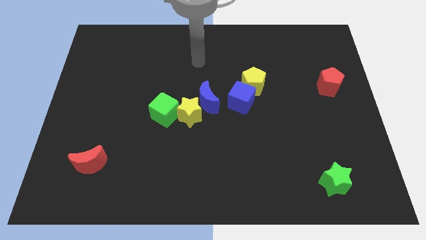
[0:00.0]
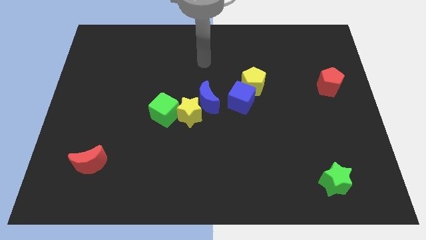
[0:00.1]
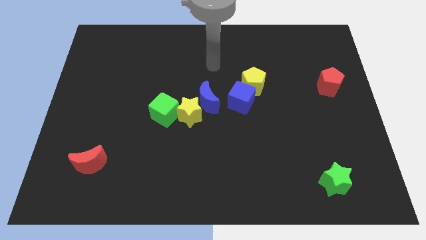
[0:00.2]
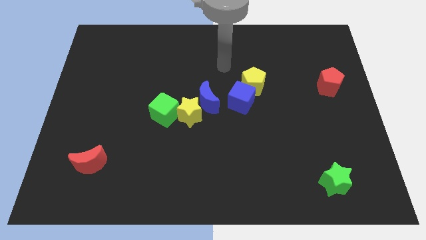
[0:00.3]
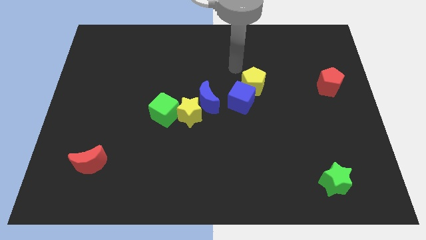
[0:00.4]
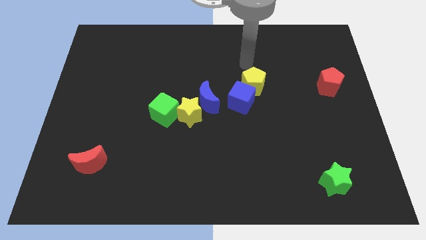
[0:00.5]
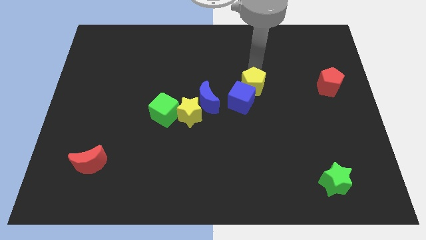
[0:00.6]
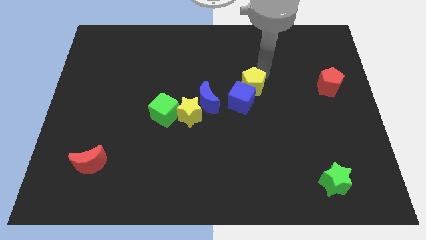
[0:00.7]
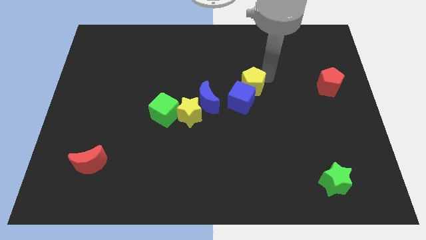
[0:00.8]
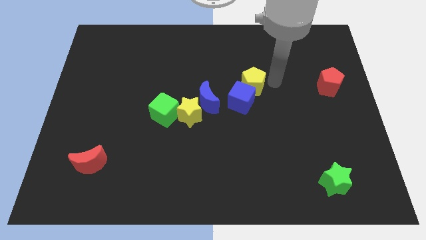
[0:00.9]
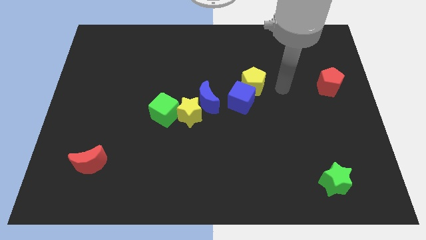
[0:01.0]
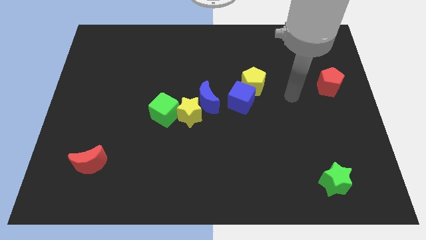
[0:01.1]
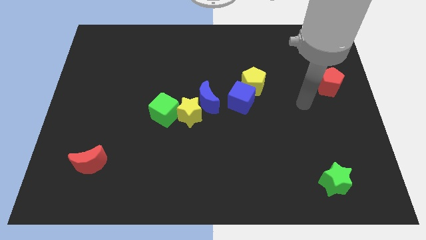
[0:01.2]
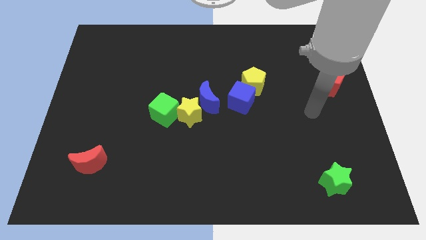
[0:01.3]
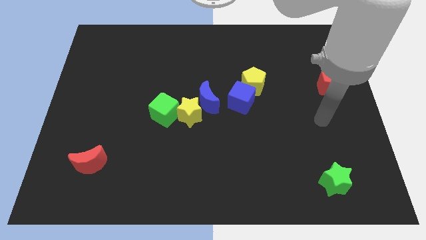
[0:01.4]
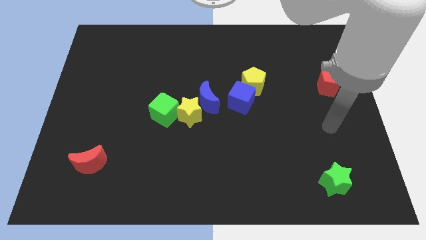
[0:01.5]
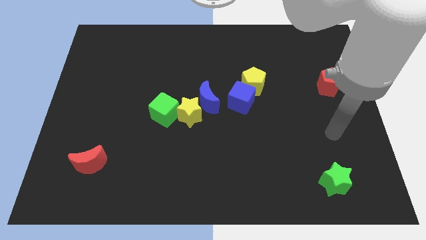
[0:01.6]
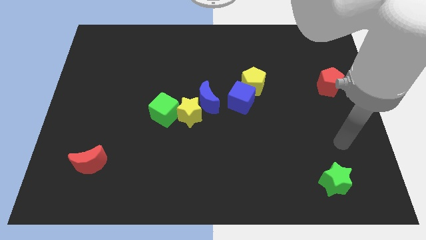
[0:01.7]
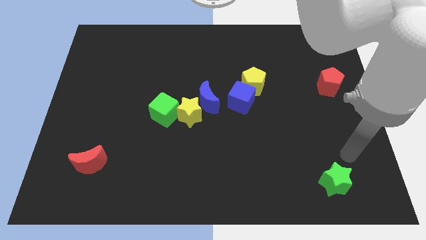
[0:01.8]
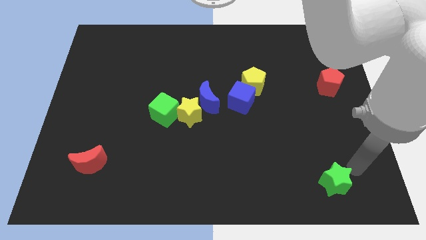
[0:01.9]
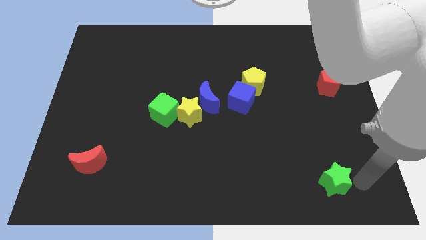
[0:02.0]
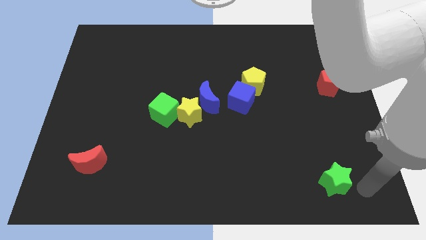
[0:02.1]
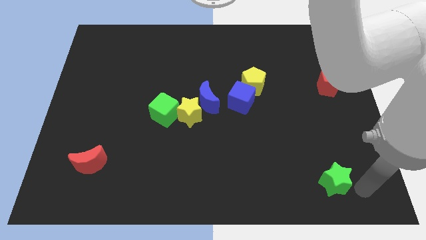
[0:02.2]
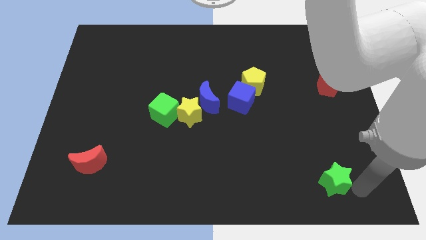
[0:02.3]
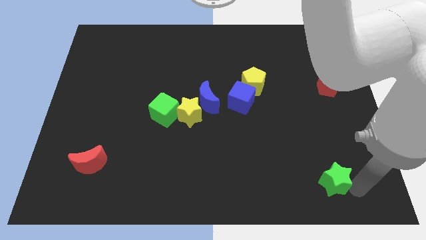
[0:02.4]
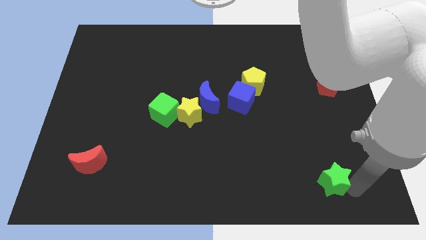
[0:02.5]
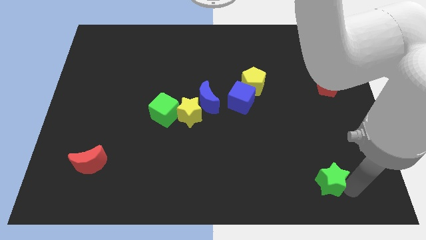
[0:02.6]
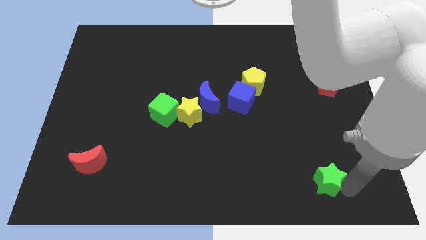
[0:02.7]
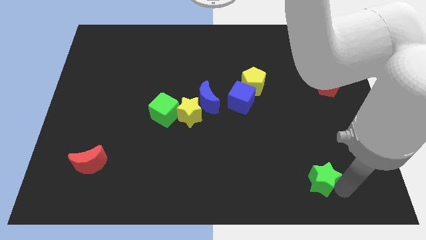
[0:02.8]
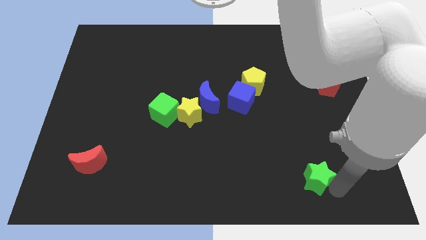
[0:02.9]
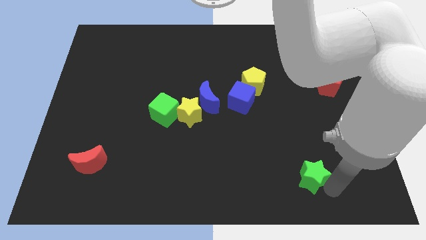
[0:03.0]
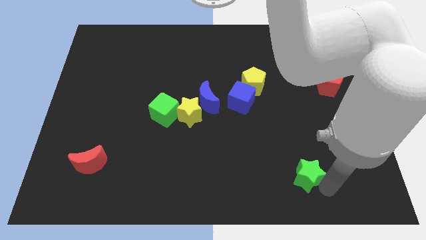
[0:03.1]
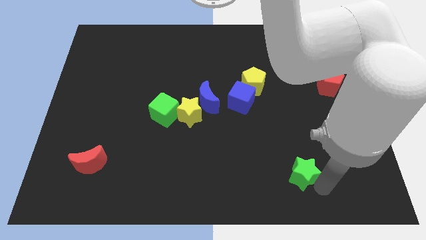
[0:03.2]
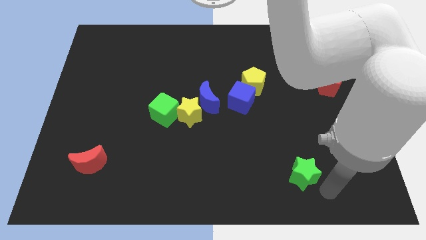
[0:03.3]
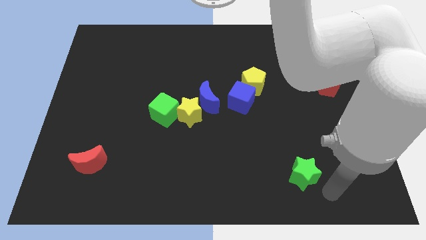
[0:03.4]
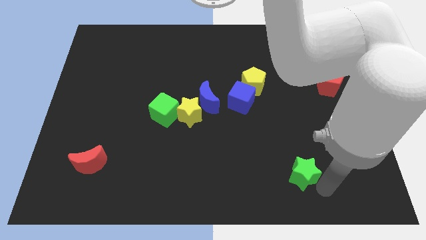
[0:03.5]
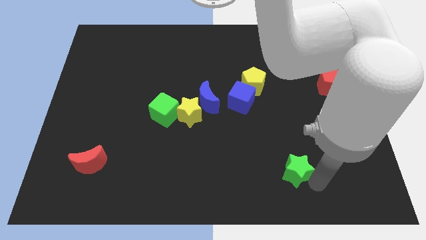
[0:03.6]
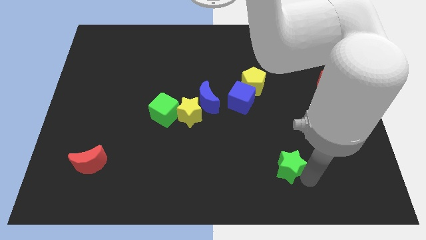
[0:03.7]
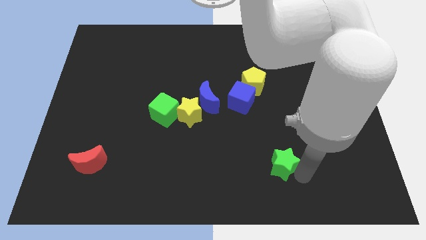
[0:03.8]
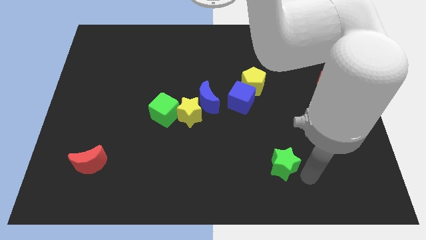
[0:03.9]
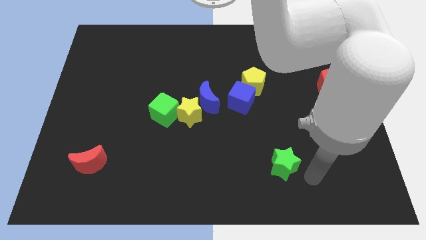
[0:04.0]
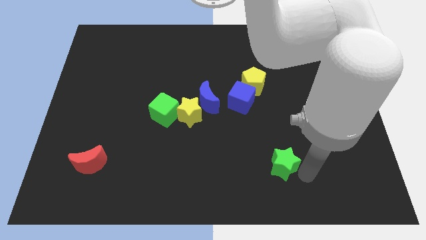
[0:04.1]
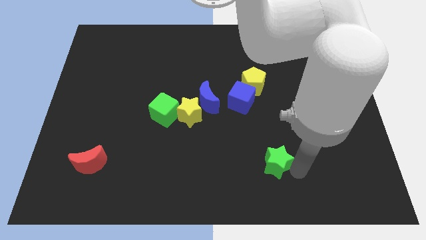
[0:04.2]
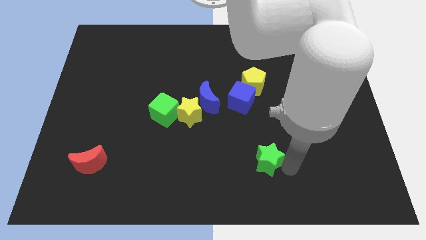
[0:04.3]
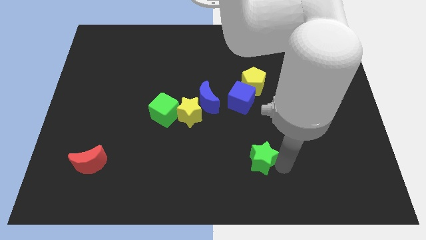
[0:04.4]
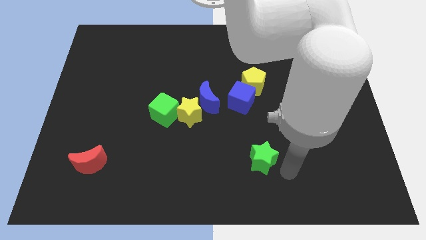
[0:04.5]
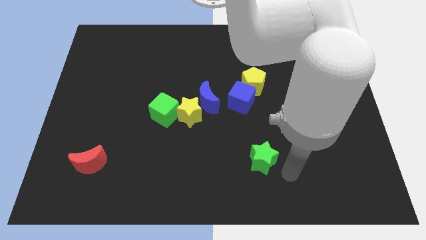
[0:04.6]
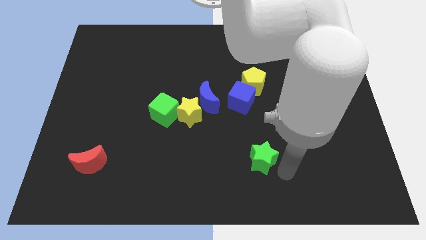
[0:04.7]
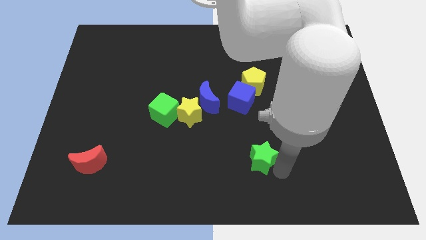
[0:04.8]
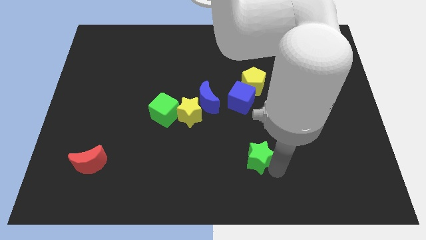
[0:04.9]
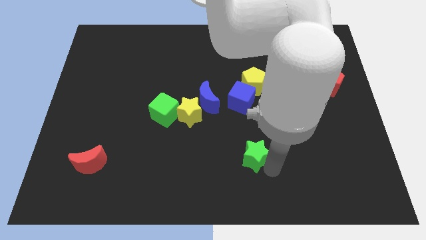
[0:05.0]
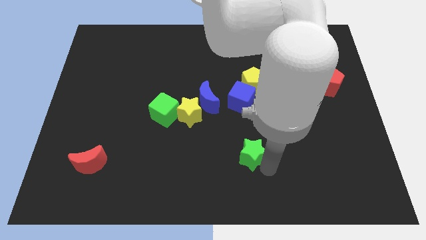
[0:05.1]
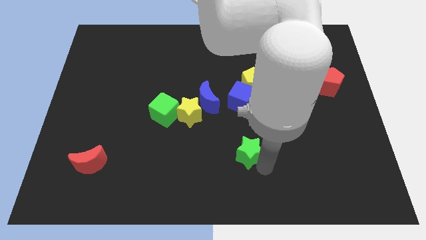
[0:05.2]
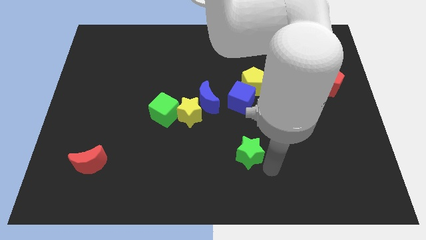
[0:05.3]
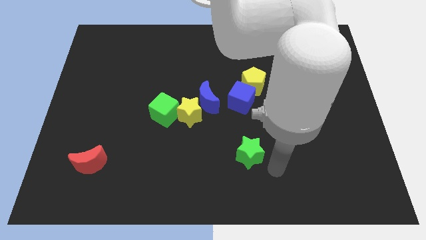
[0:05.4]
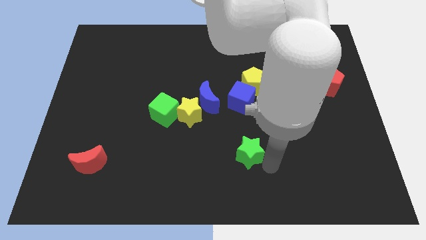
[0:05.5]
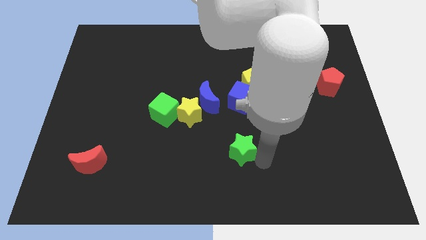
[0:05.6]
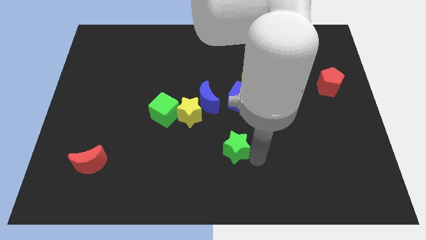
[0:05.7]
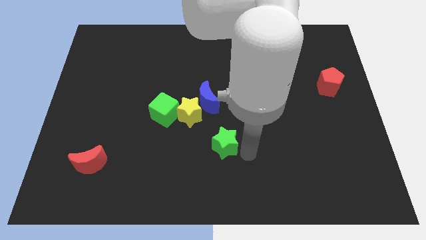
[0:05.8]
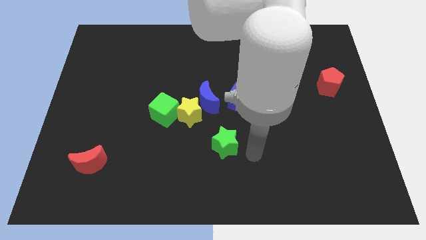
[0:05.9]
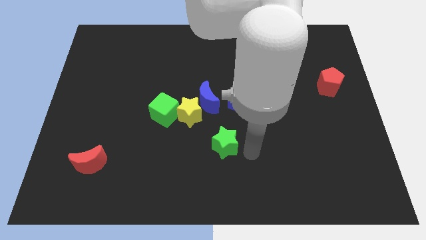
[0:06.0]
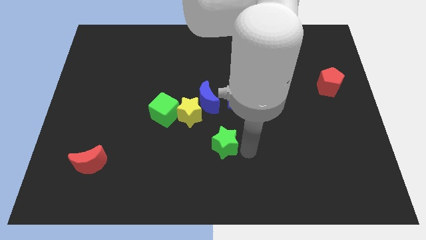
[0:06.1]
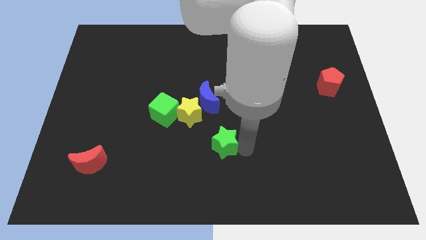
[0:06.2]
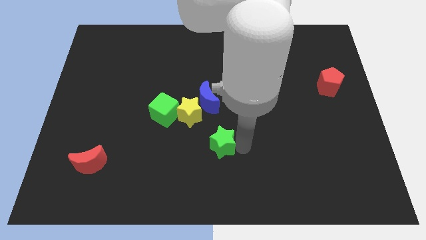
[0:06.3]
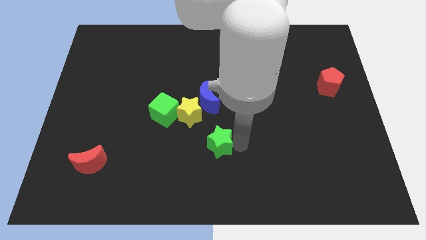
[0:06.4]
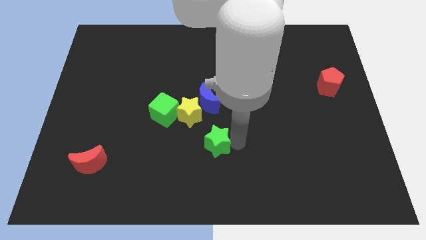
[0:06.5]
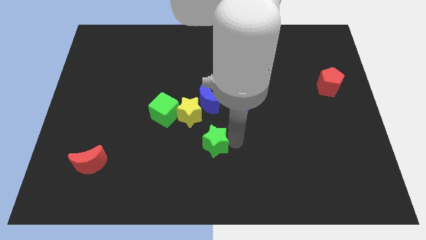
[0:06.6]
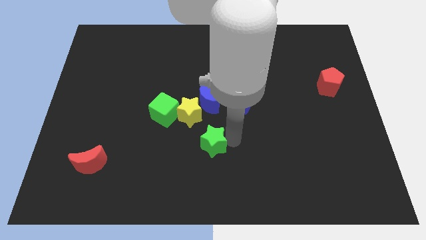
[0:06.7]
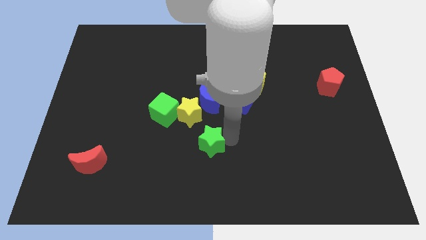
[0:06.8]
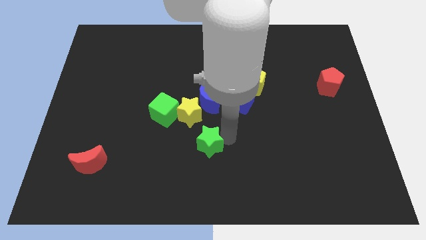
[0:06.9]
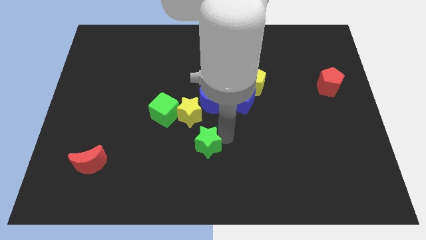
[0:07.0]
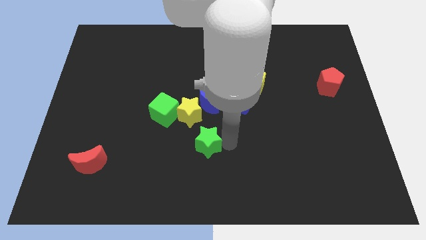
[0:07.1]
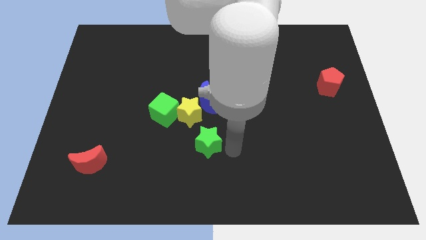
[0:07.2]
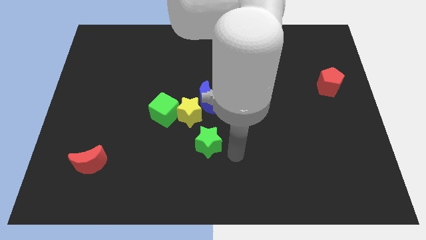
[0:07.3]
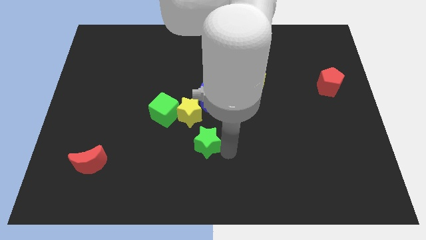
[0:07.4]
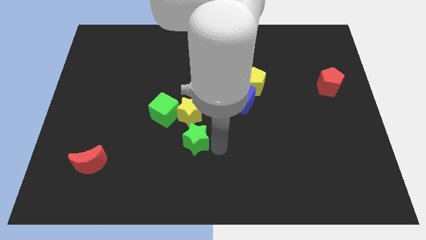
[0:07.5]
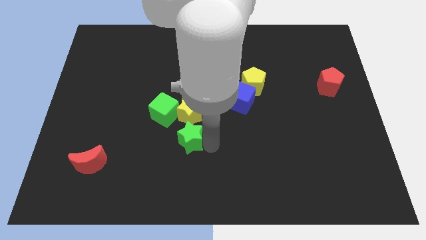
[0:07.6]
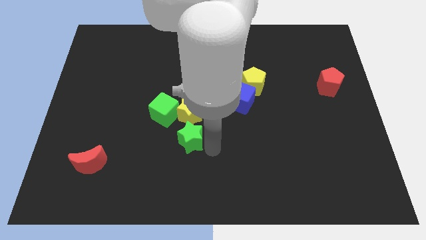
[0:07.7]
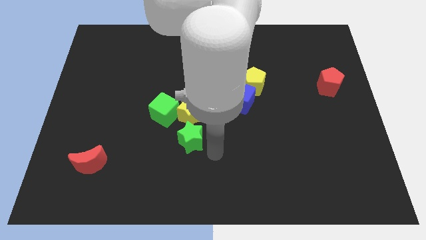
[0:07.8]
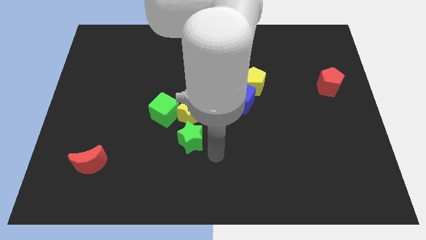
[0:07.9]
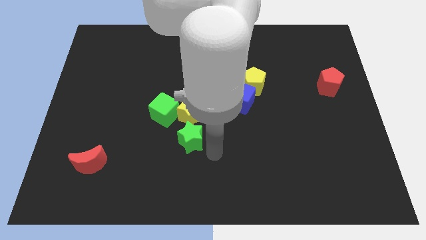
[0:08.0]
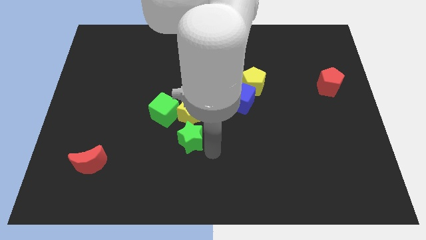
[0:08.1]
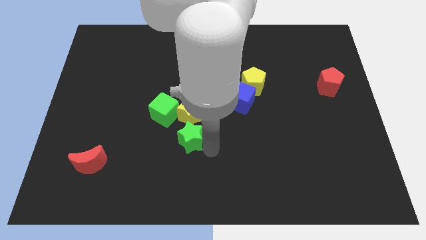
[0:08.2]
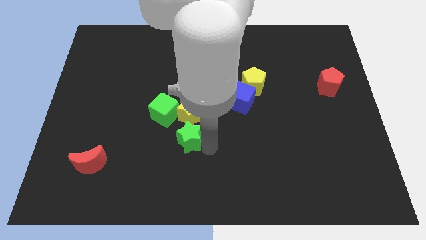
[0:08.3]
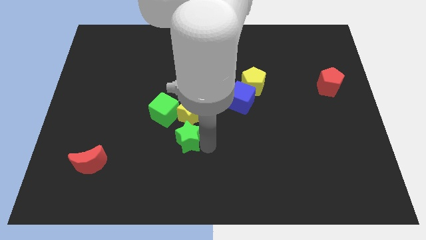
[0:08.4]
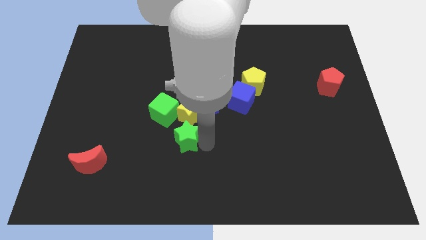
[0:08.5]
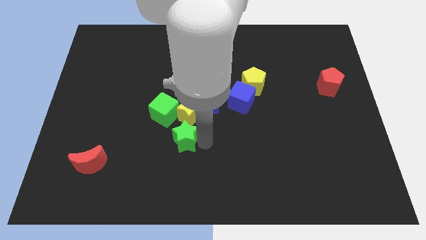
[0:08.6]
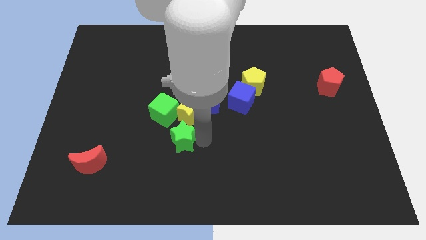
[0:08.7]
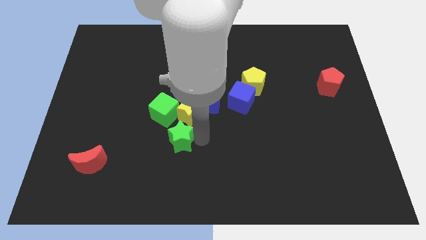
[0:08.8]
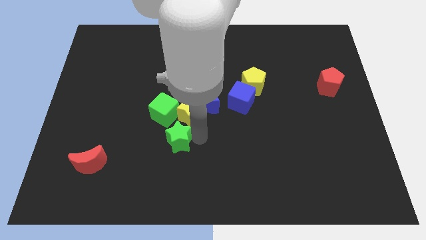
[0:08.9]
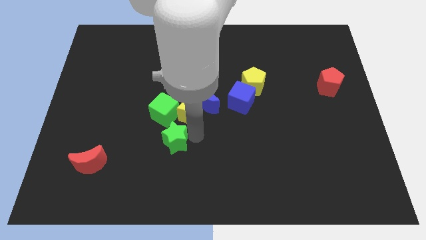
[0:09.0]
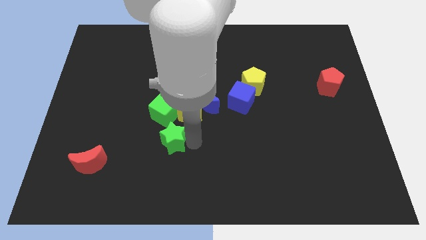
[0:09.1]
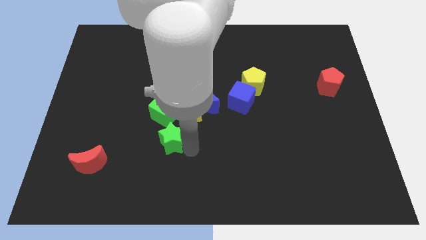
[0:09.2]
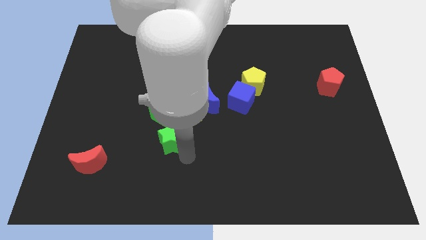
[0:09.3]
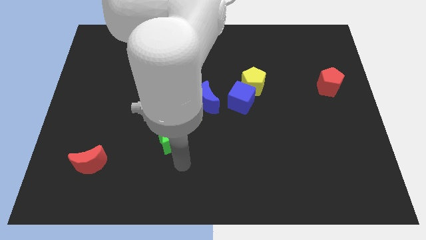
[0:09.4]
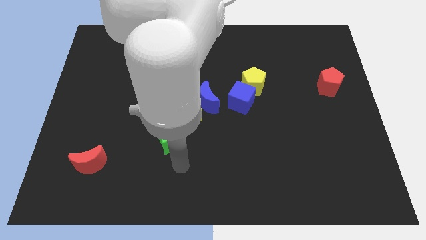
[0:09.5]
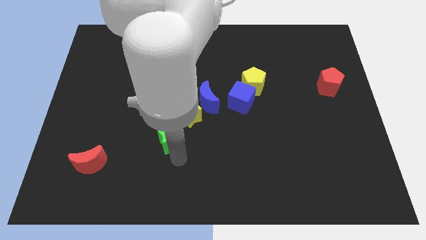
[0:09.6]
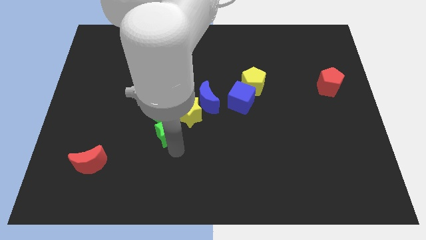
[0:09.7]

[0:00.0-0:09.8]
push the green star towards the green cube
